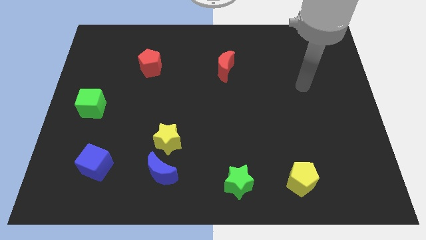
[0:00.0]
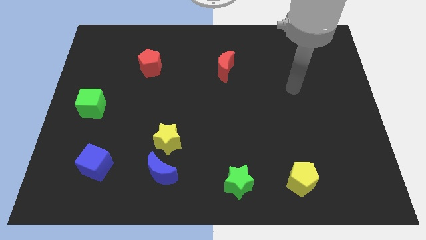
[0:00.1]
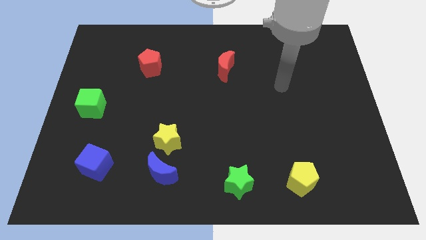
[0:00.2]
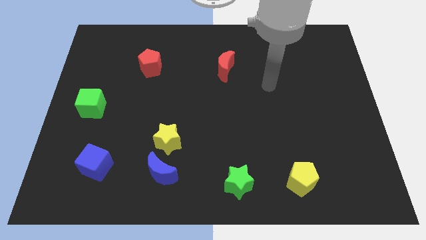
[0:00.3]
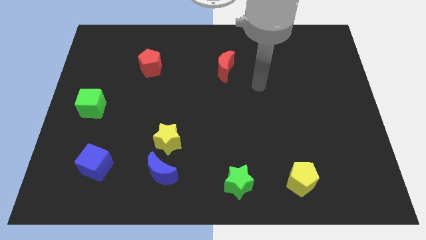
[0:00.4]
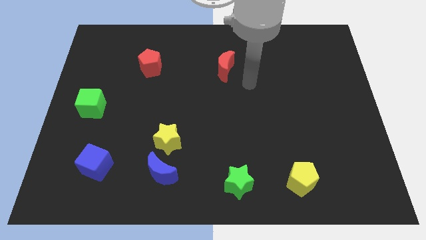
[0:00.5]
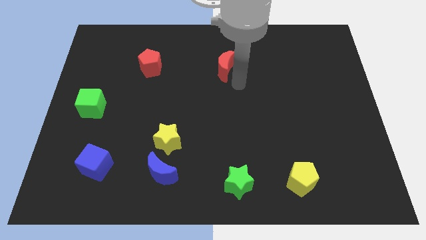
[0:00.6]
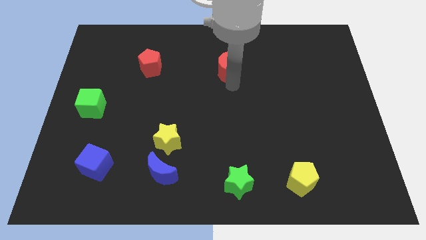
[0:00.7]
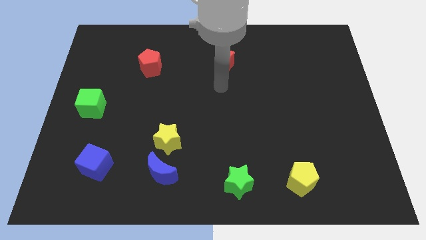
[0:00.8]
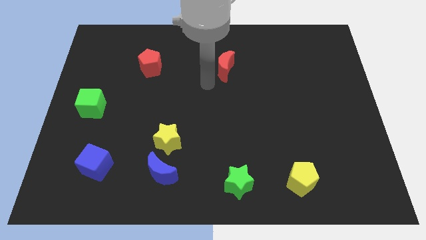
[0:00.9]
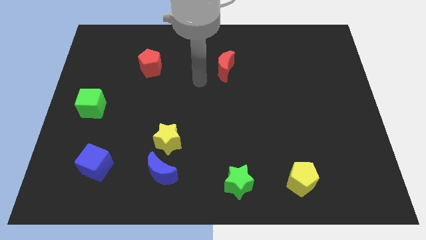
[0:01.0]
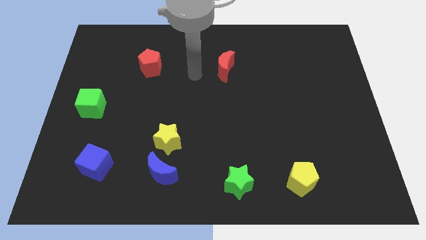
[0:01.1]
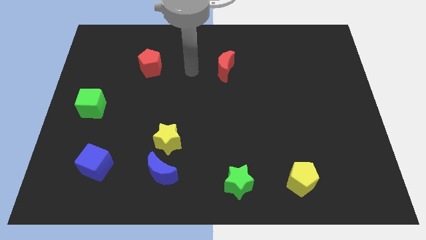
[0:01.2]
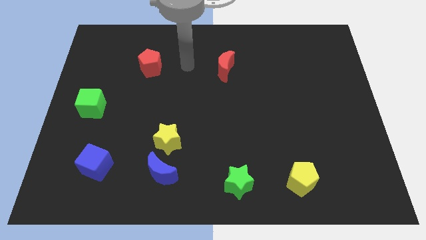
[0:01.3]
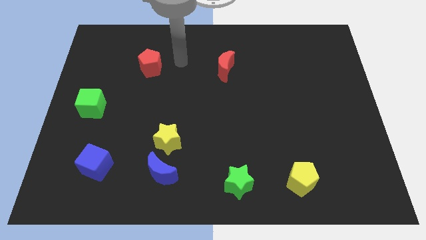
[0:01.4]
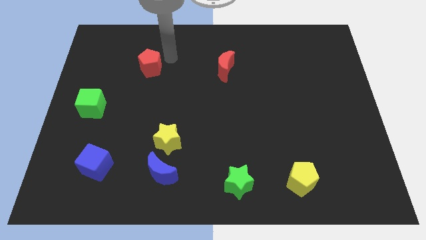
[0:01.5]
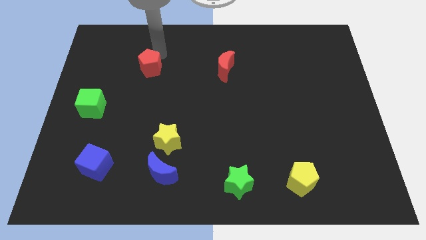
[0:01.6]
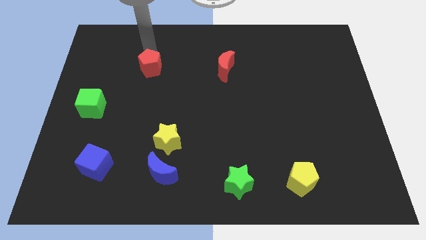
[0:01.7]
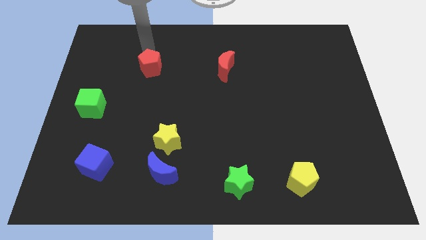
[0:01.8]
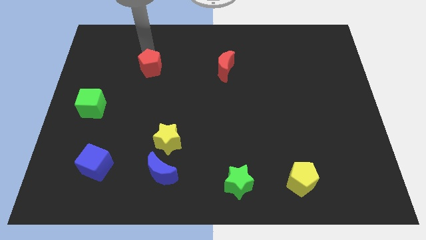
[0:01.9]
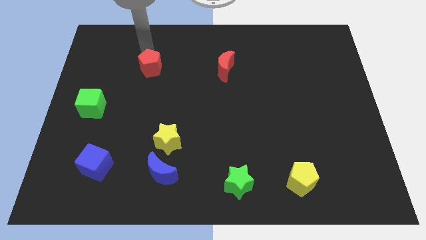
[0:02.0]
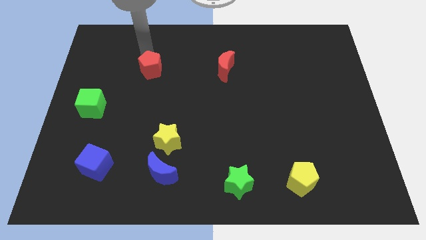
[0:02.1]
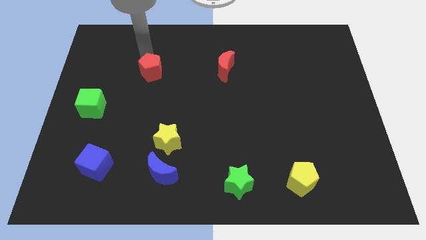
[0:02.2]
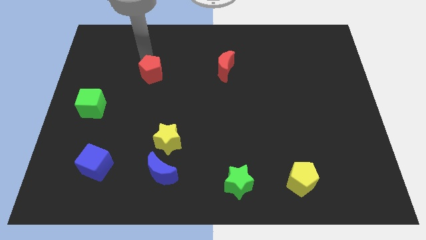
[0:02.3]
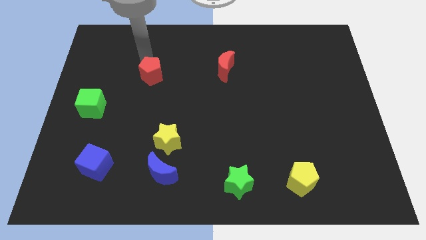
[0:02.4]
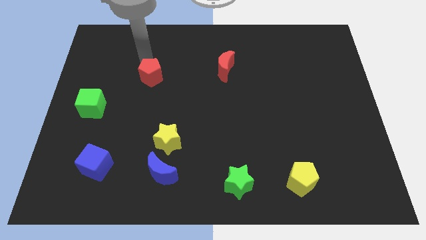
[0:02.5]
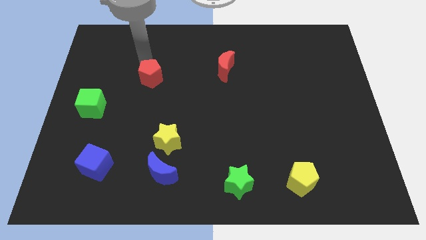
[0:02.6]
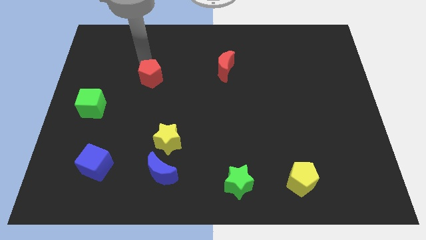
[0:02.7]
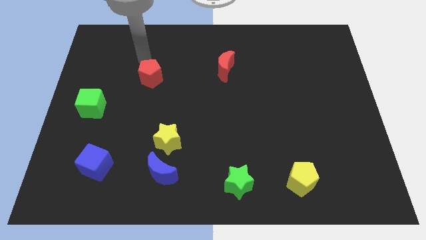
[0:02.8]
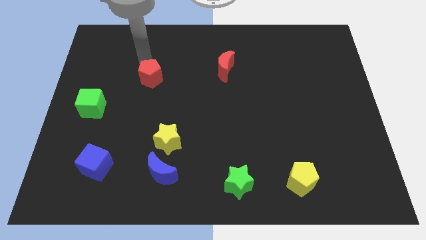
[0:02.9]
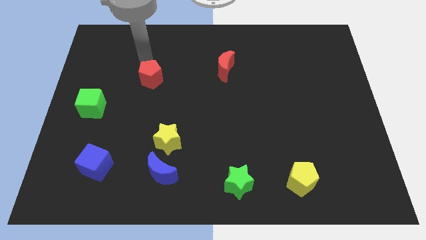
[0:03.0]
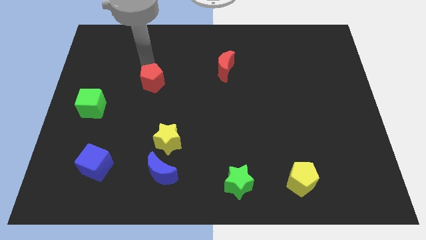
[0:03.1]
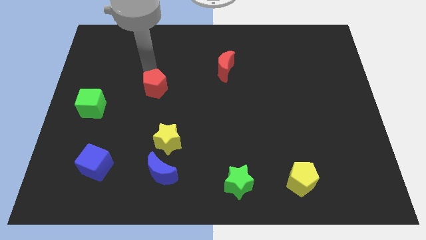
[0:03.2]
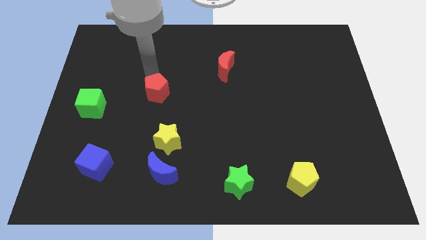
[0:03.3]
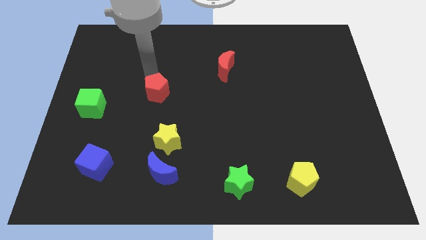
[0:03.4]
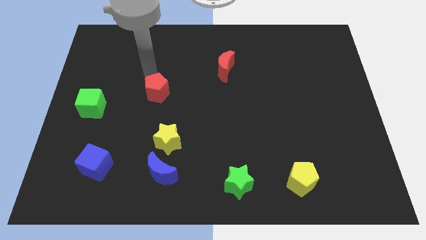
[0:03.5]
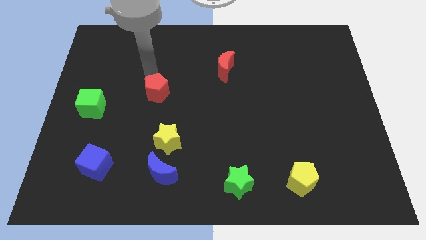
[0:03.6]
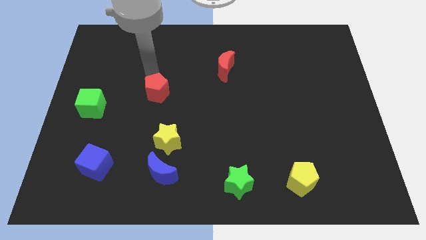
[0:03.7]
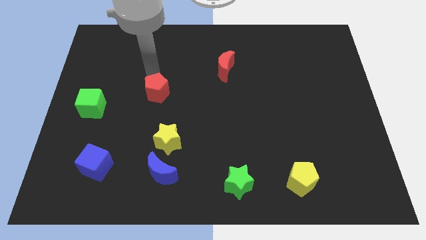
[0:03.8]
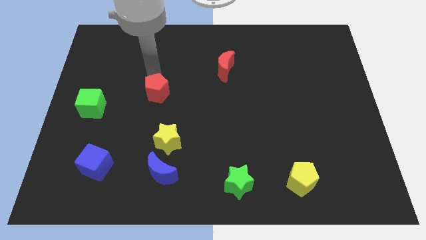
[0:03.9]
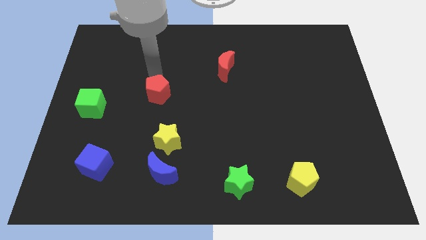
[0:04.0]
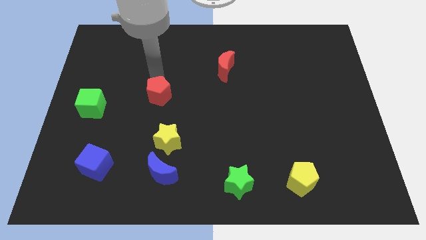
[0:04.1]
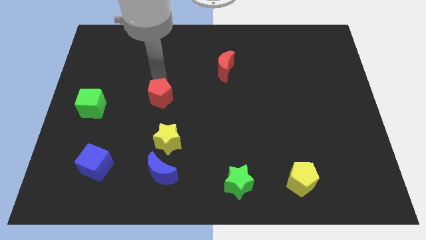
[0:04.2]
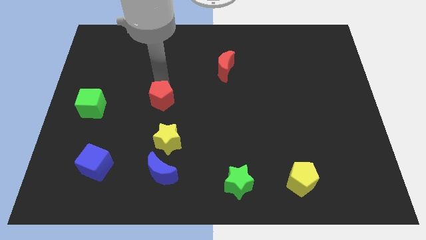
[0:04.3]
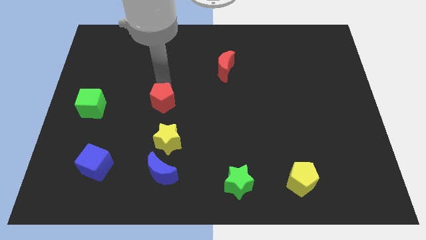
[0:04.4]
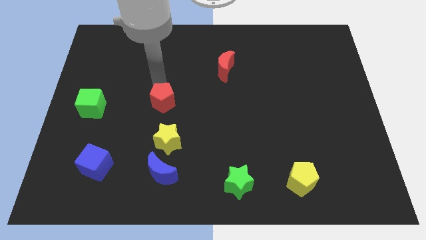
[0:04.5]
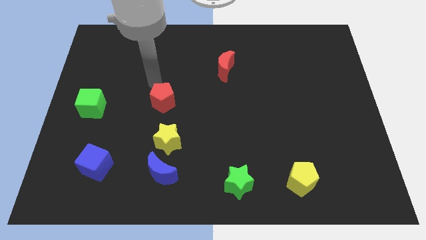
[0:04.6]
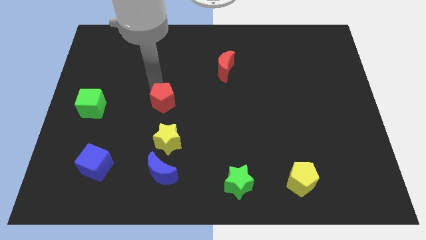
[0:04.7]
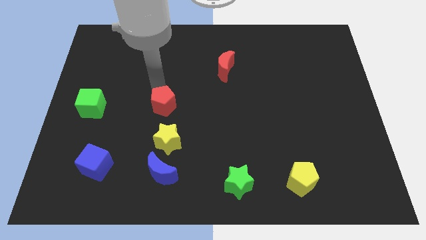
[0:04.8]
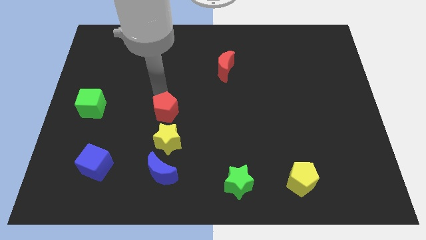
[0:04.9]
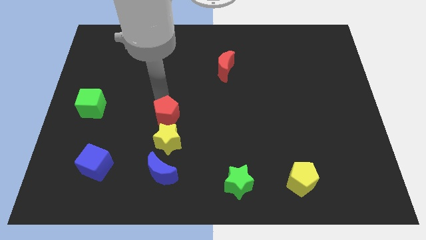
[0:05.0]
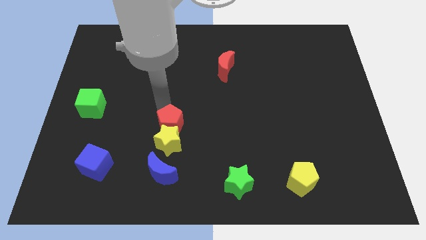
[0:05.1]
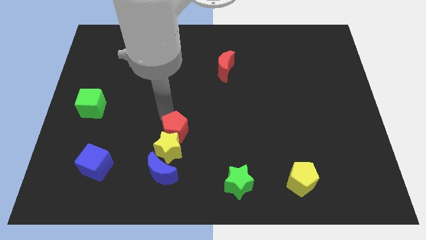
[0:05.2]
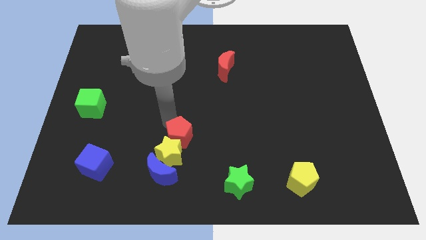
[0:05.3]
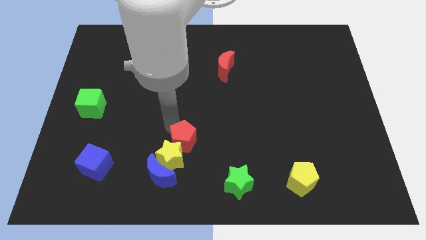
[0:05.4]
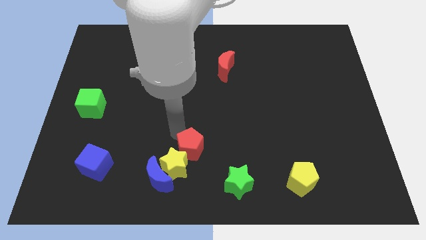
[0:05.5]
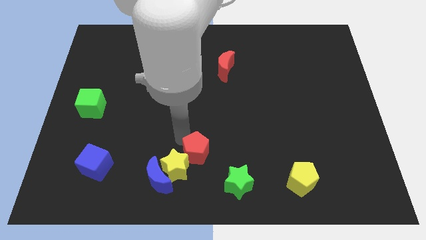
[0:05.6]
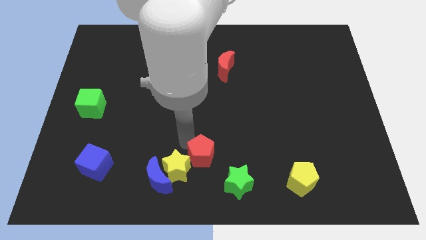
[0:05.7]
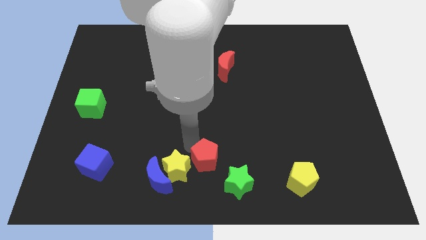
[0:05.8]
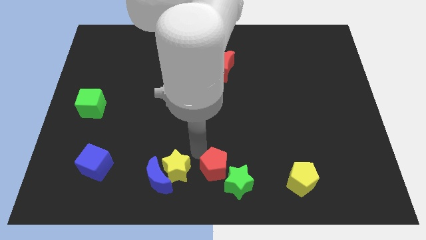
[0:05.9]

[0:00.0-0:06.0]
move the red pentagon towards the green star
